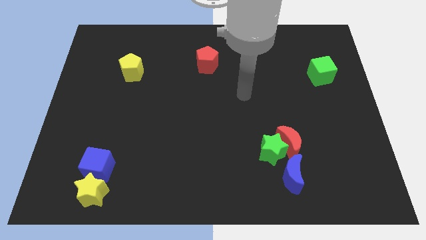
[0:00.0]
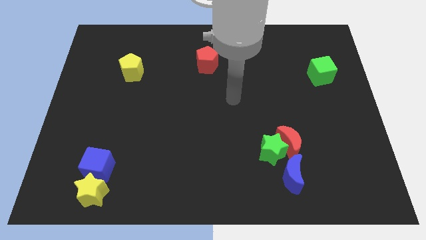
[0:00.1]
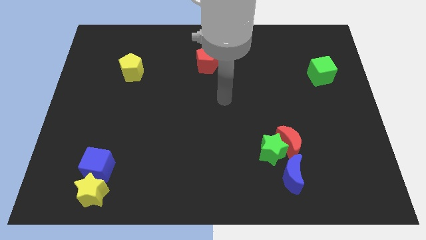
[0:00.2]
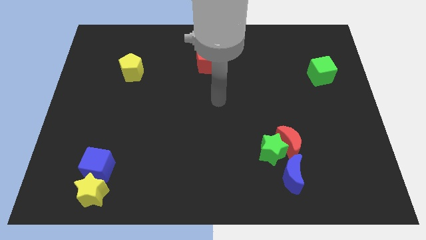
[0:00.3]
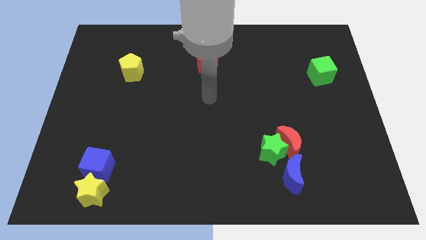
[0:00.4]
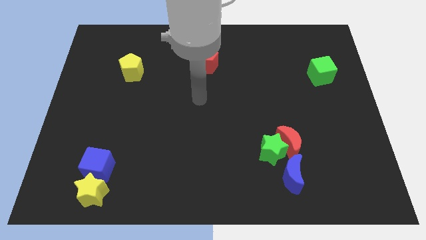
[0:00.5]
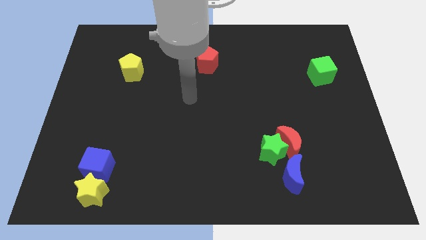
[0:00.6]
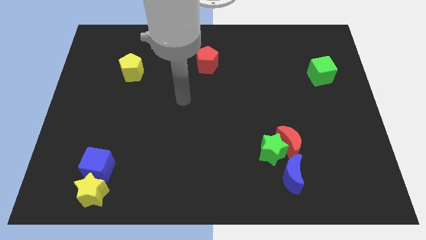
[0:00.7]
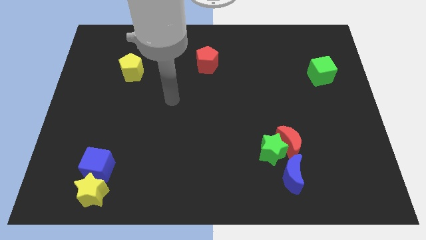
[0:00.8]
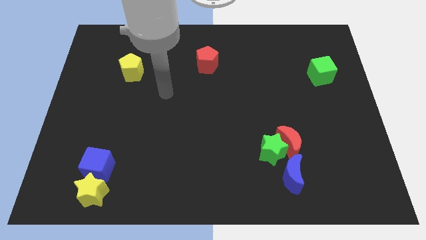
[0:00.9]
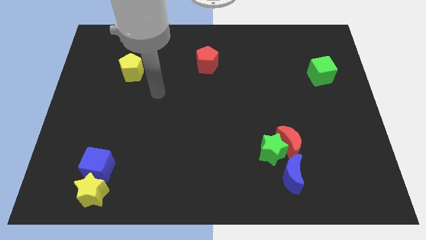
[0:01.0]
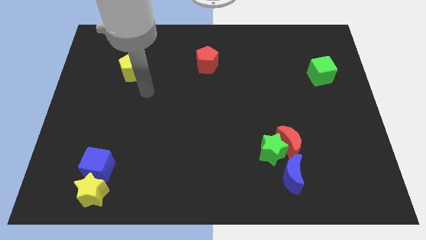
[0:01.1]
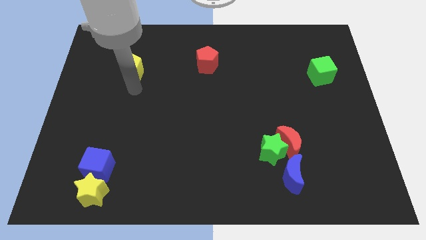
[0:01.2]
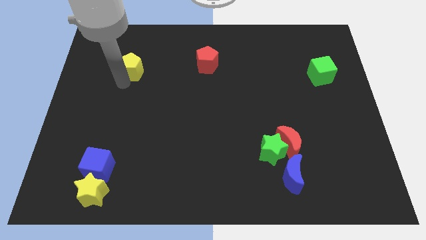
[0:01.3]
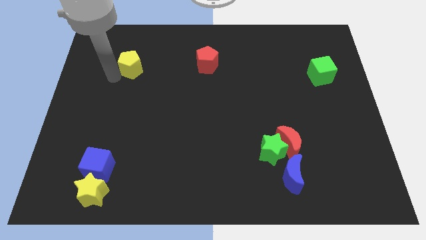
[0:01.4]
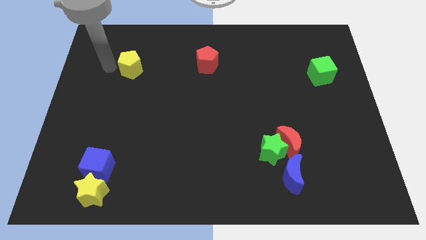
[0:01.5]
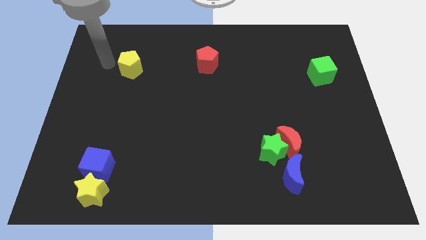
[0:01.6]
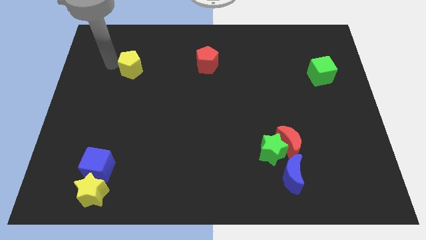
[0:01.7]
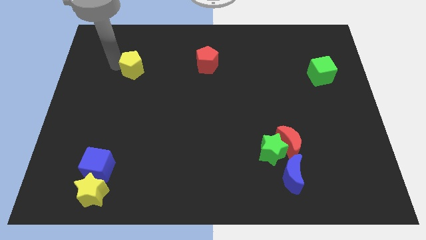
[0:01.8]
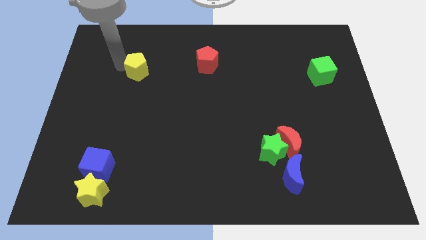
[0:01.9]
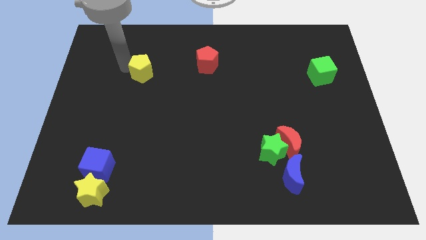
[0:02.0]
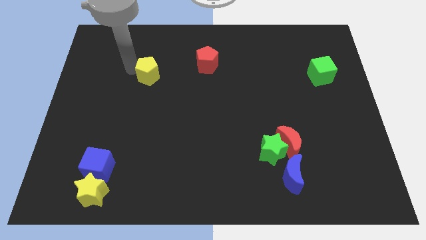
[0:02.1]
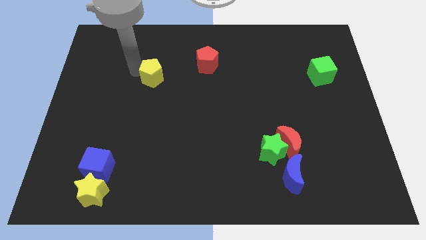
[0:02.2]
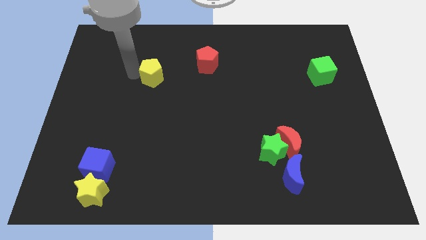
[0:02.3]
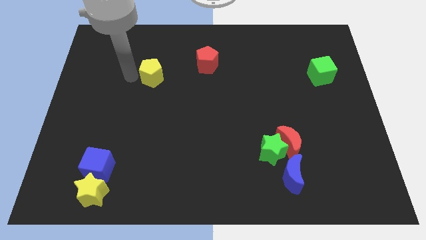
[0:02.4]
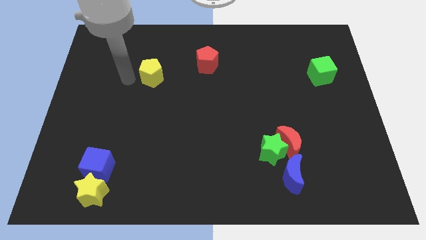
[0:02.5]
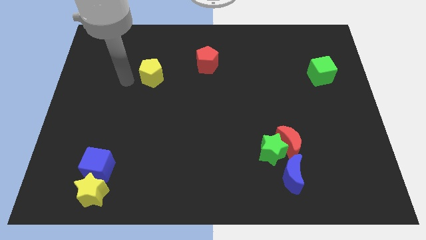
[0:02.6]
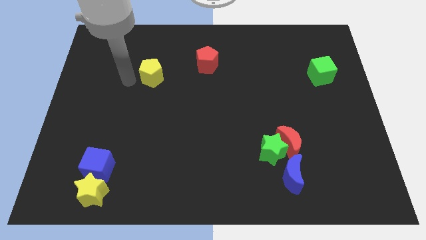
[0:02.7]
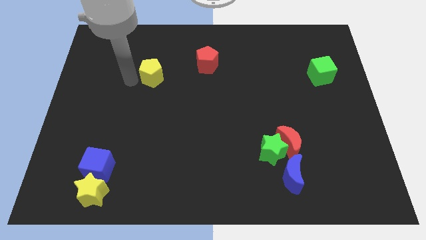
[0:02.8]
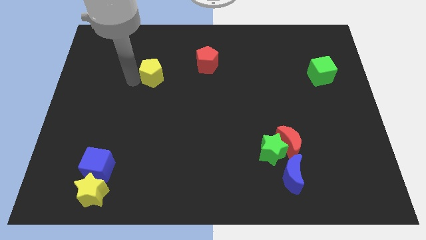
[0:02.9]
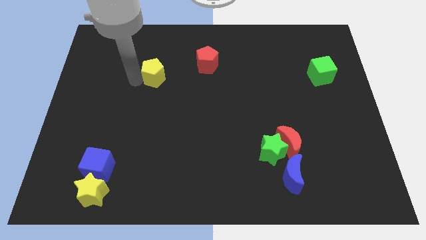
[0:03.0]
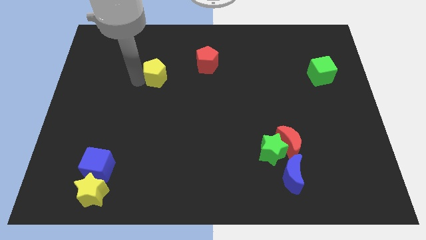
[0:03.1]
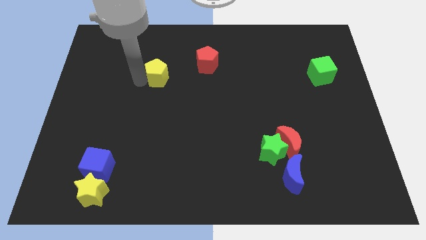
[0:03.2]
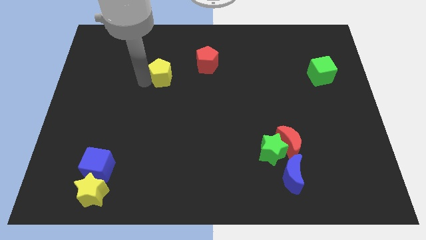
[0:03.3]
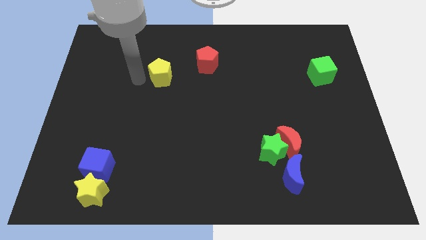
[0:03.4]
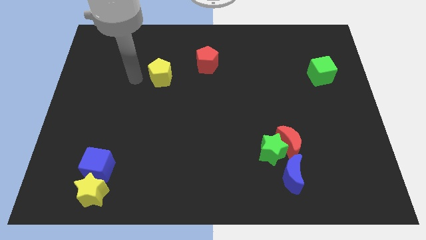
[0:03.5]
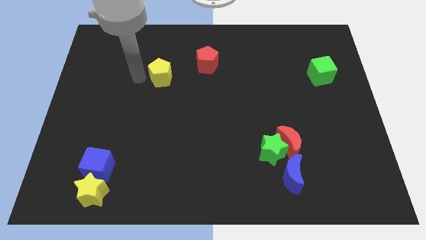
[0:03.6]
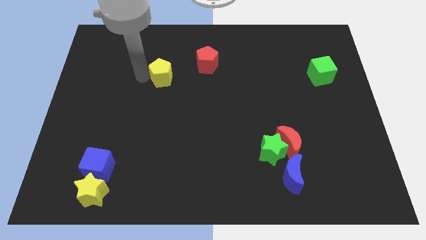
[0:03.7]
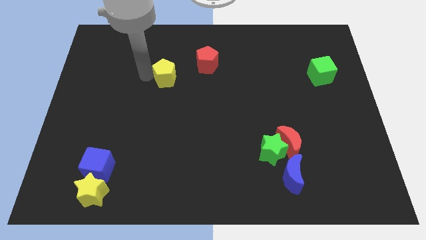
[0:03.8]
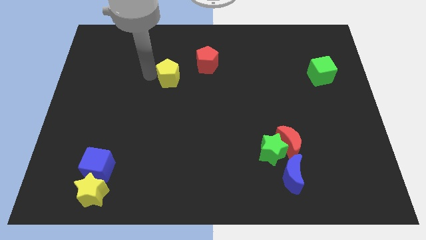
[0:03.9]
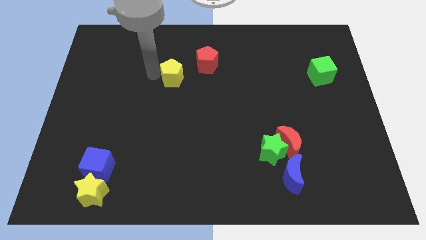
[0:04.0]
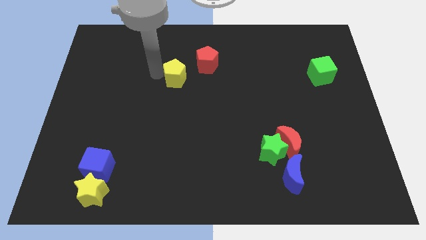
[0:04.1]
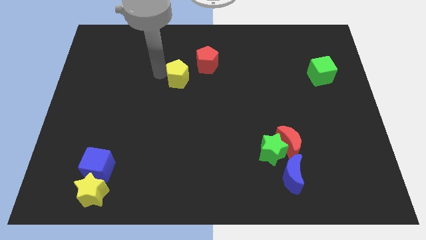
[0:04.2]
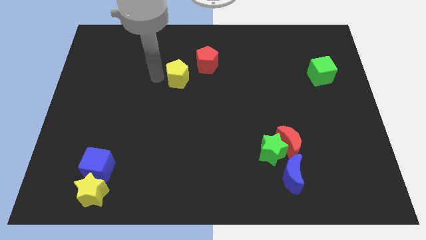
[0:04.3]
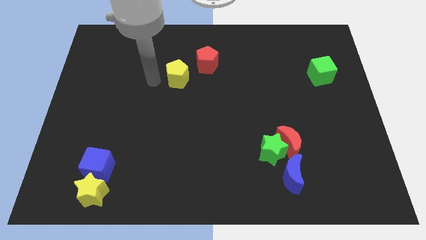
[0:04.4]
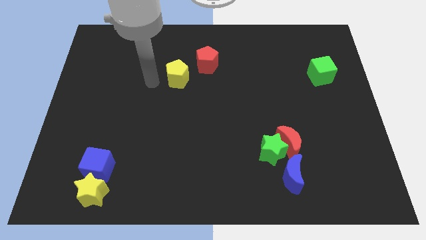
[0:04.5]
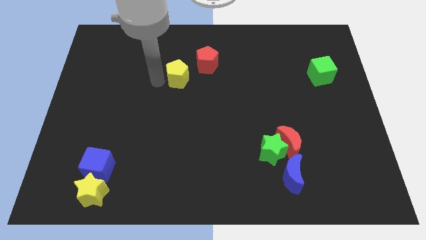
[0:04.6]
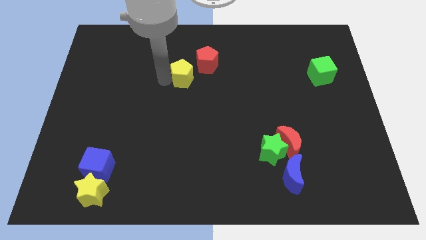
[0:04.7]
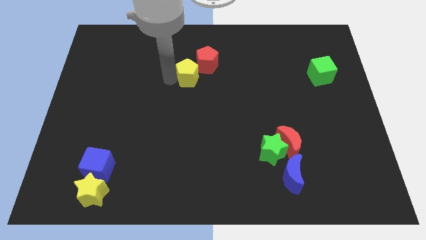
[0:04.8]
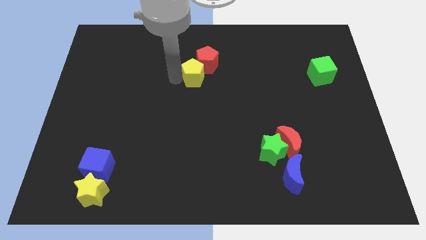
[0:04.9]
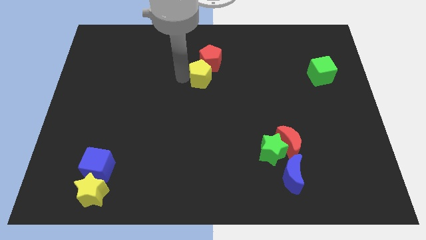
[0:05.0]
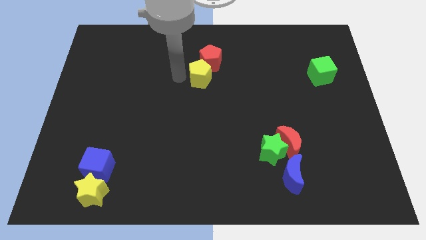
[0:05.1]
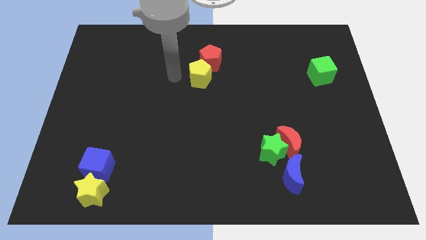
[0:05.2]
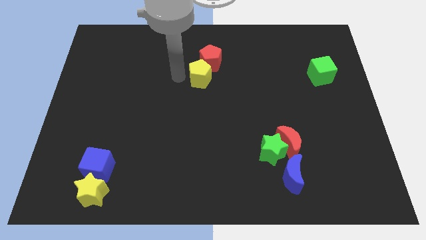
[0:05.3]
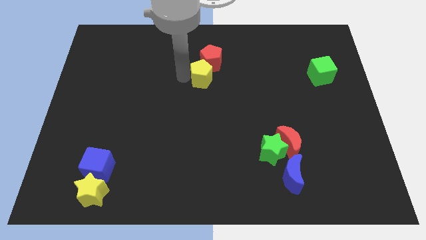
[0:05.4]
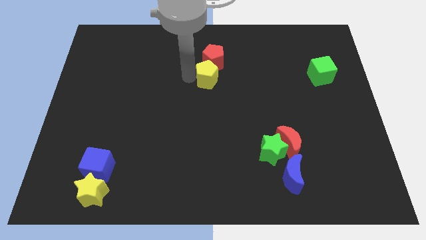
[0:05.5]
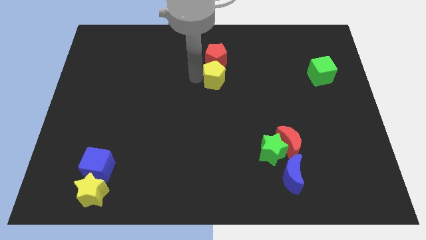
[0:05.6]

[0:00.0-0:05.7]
push the yellow pentagon right

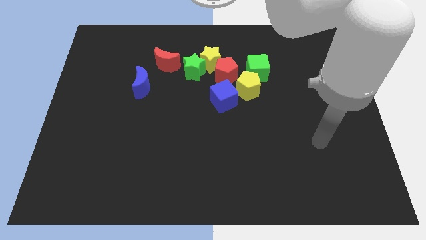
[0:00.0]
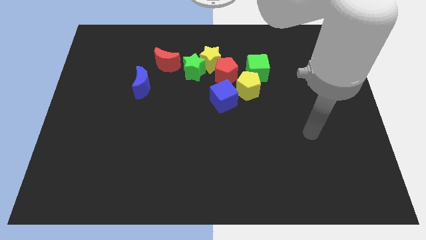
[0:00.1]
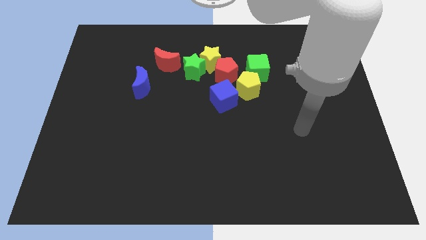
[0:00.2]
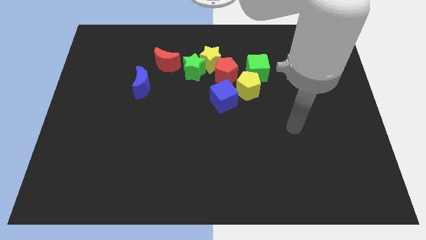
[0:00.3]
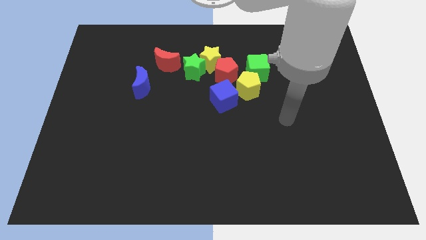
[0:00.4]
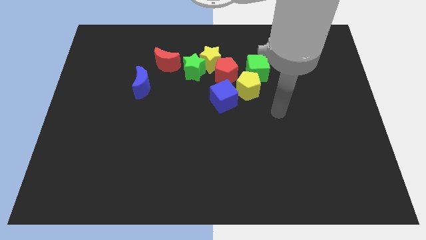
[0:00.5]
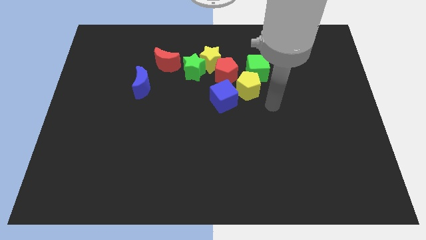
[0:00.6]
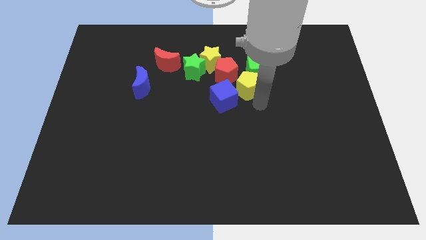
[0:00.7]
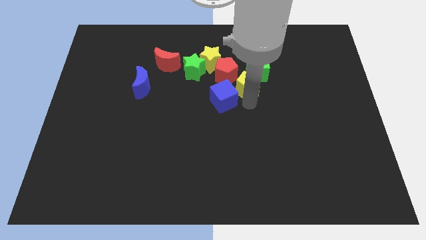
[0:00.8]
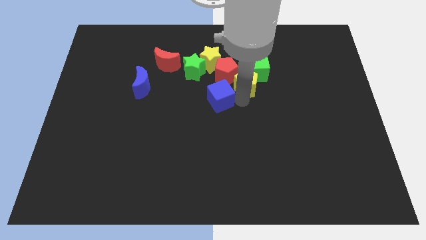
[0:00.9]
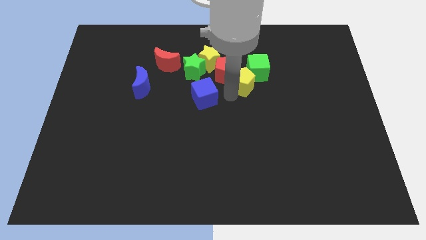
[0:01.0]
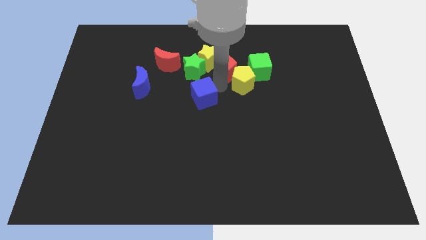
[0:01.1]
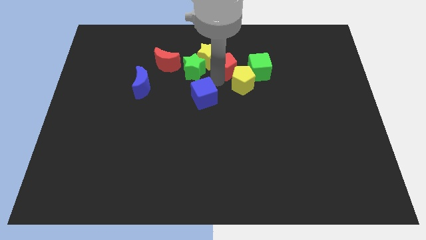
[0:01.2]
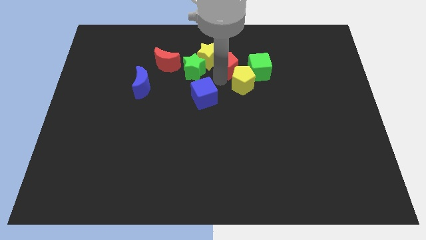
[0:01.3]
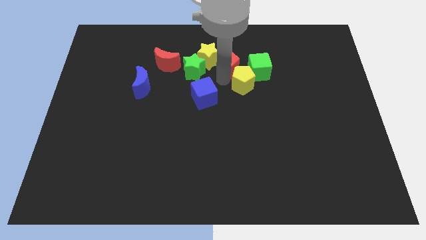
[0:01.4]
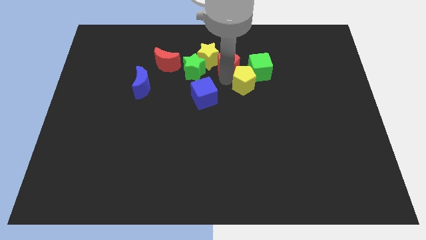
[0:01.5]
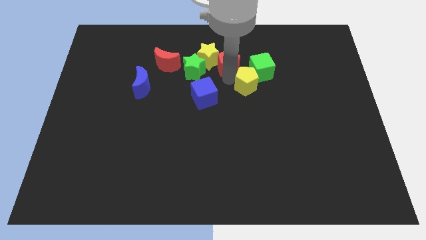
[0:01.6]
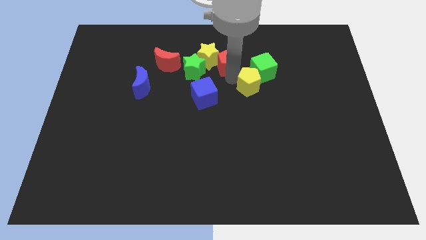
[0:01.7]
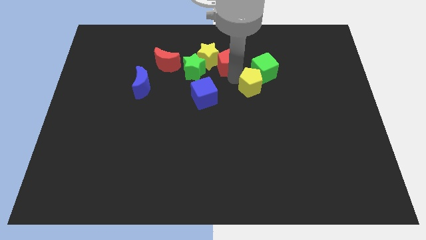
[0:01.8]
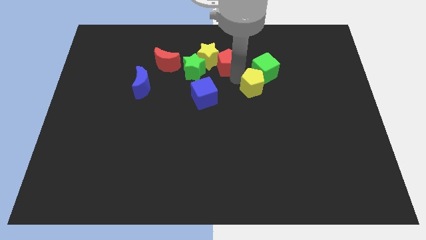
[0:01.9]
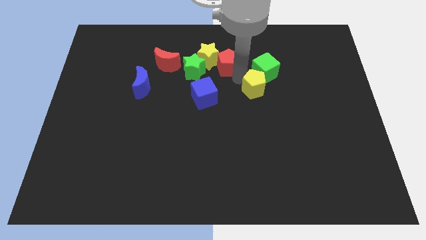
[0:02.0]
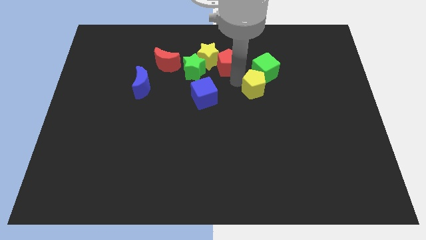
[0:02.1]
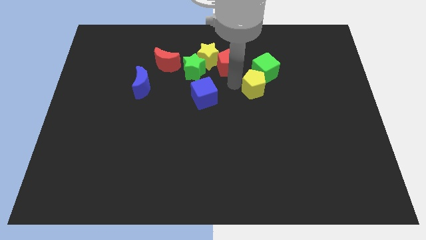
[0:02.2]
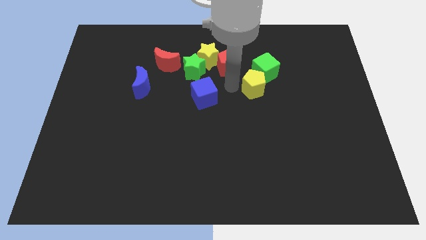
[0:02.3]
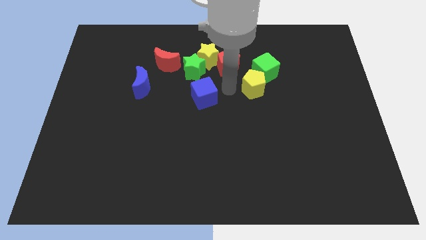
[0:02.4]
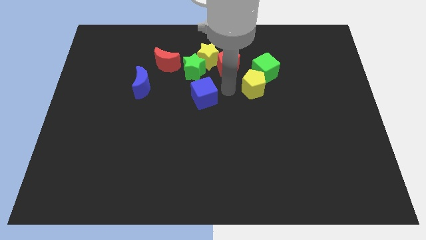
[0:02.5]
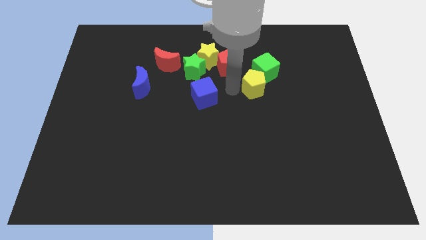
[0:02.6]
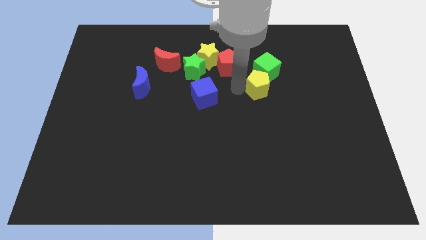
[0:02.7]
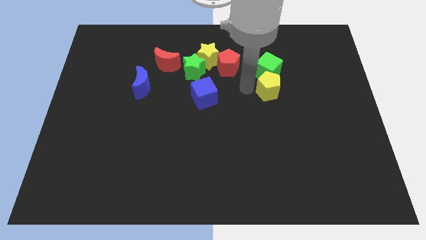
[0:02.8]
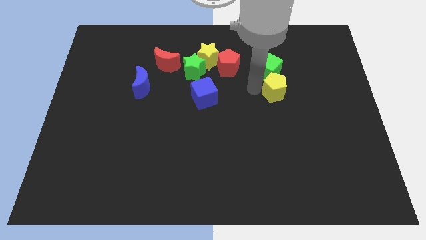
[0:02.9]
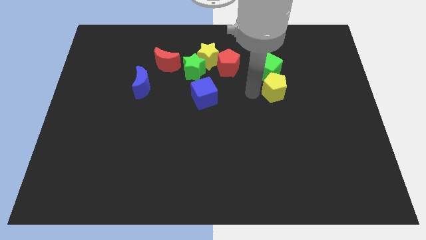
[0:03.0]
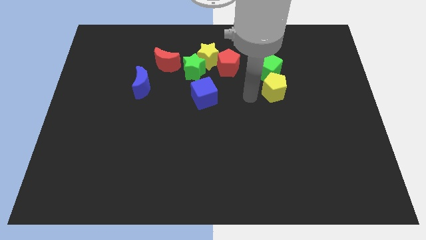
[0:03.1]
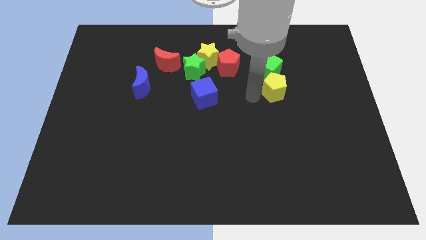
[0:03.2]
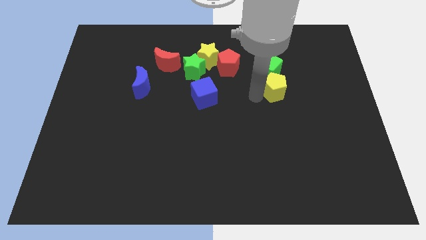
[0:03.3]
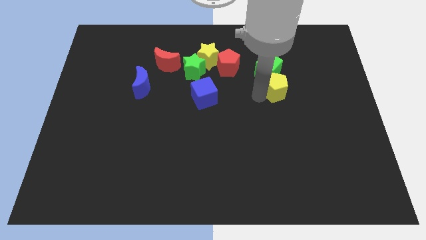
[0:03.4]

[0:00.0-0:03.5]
push the yellow pentagon slightly right
